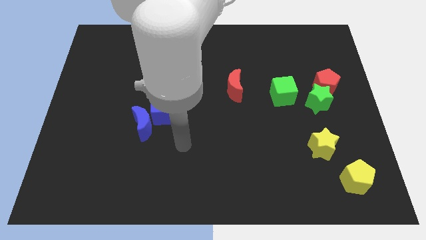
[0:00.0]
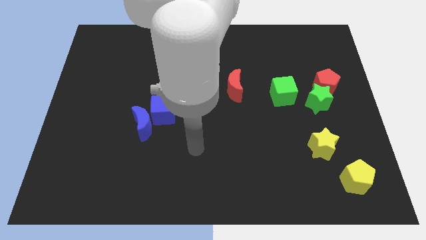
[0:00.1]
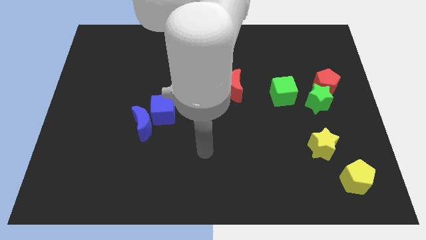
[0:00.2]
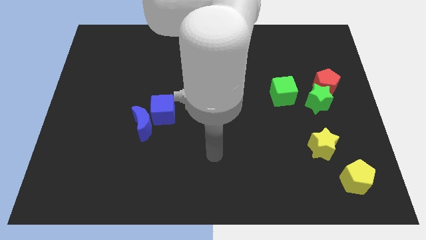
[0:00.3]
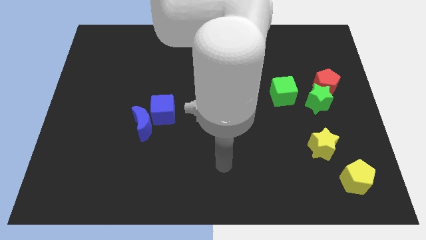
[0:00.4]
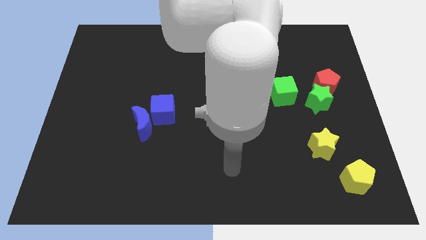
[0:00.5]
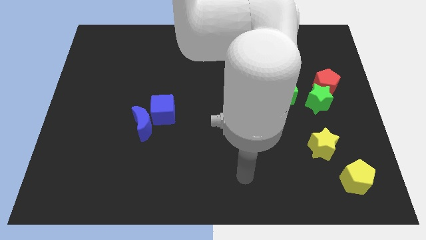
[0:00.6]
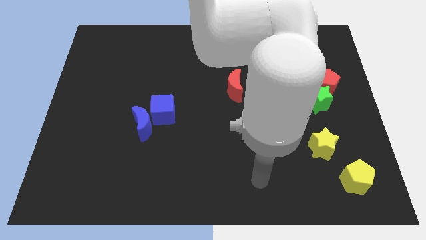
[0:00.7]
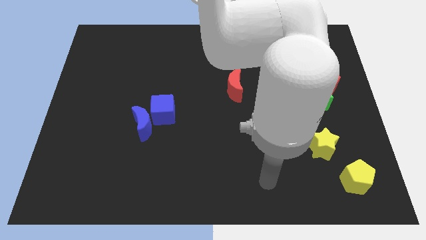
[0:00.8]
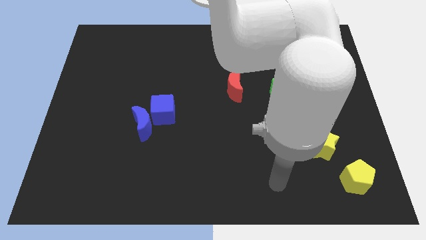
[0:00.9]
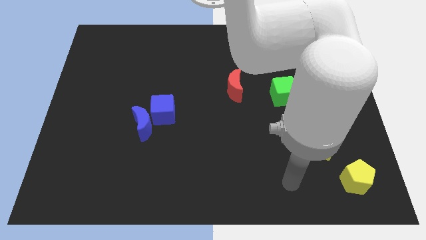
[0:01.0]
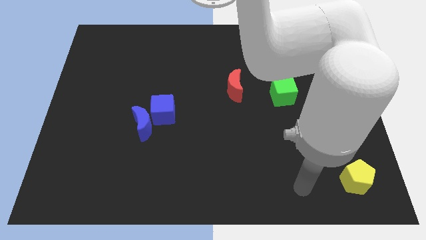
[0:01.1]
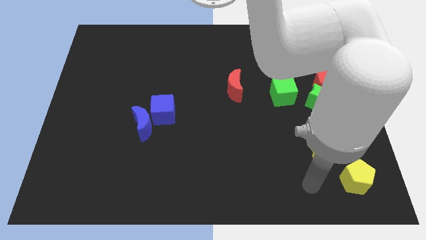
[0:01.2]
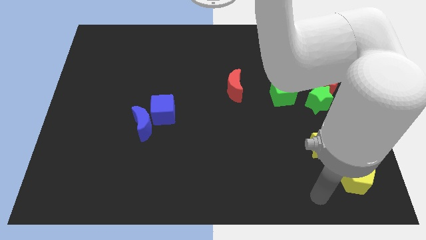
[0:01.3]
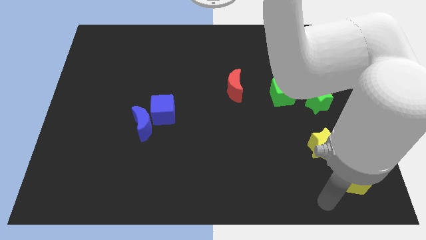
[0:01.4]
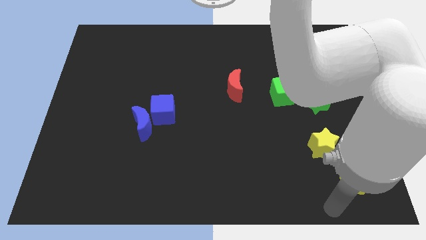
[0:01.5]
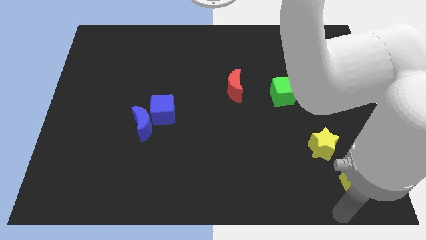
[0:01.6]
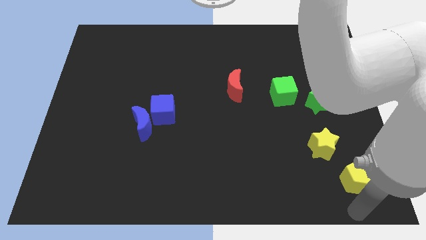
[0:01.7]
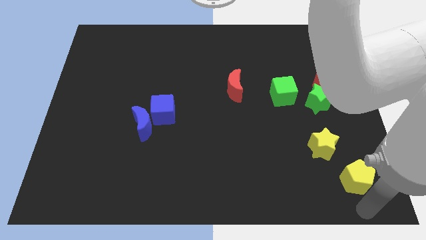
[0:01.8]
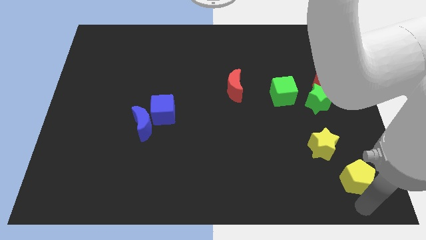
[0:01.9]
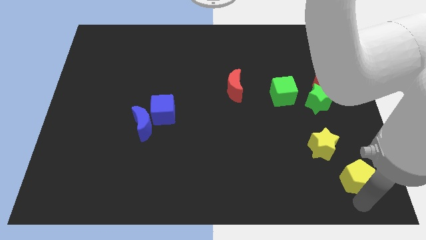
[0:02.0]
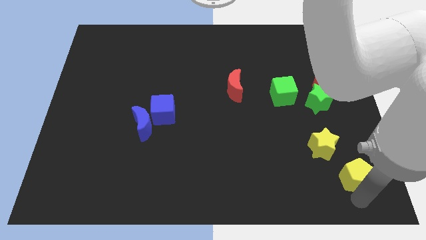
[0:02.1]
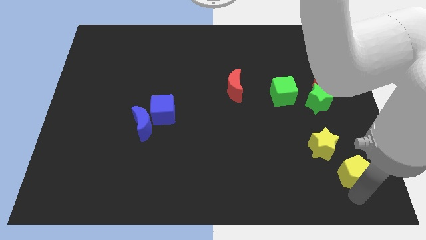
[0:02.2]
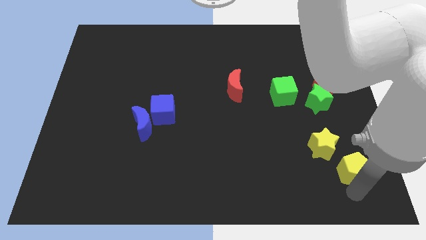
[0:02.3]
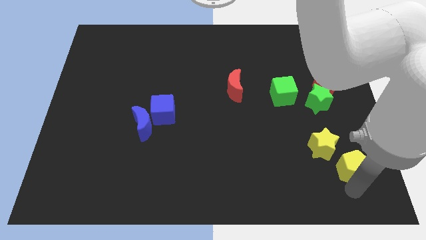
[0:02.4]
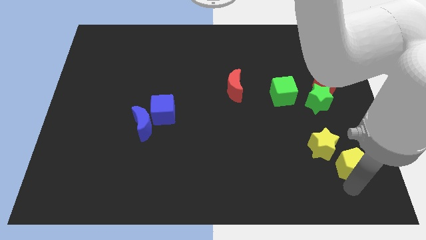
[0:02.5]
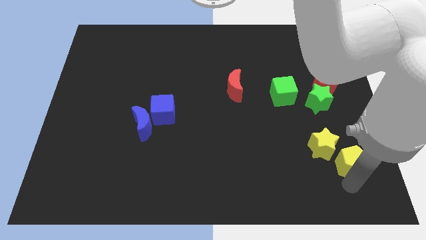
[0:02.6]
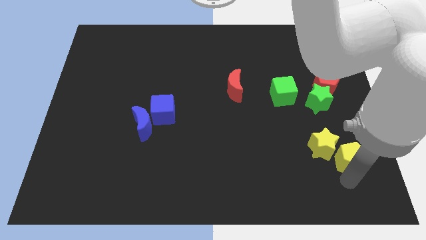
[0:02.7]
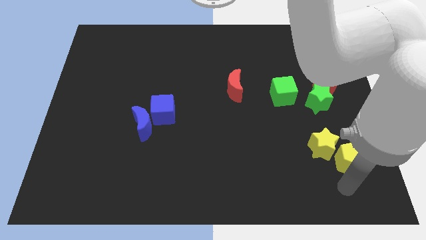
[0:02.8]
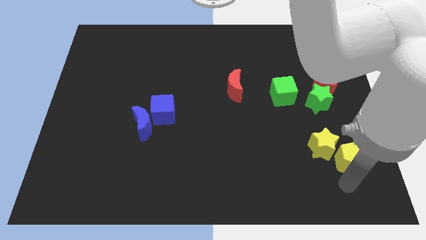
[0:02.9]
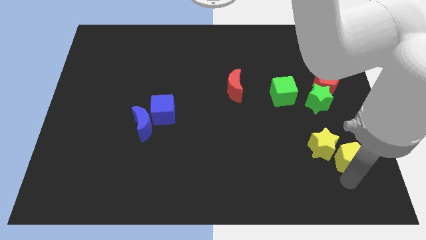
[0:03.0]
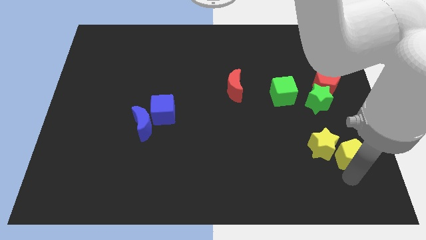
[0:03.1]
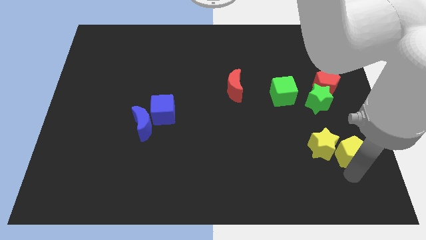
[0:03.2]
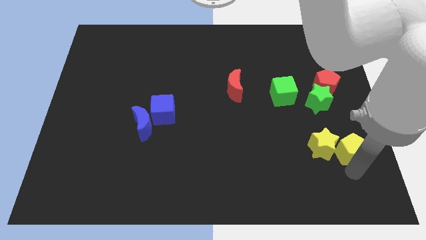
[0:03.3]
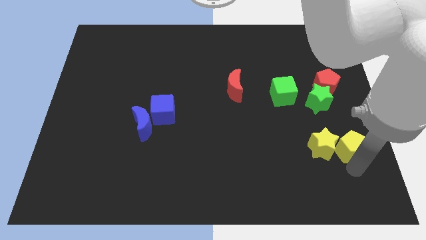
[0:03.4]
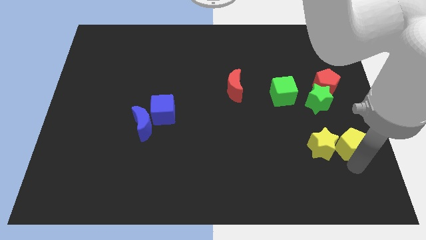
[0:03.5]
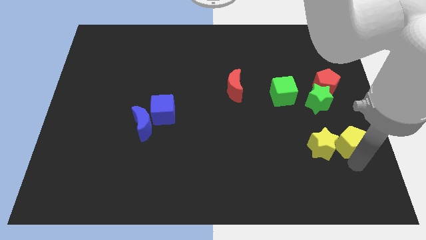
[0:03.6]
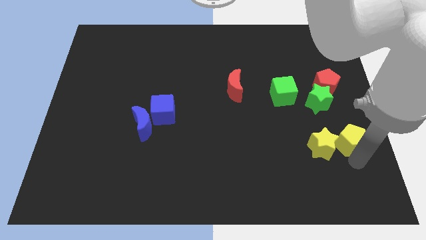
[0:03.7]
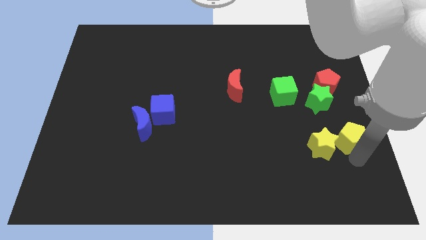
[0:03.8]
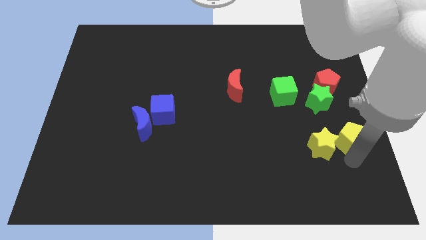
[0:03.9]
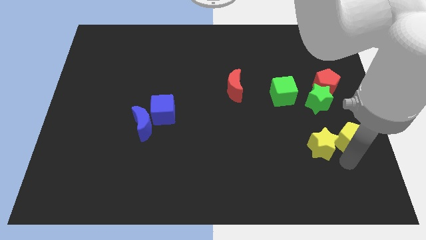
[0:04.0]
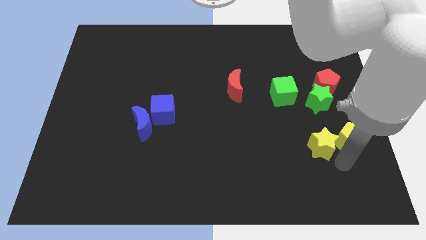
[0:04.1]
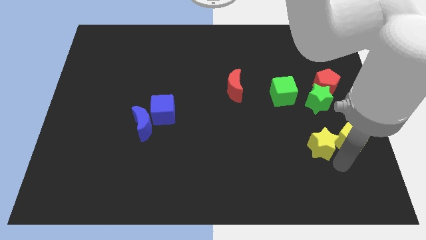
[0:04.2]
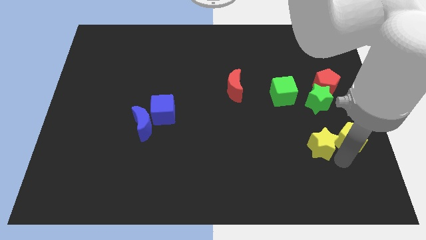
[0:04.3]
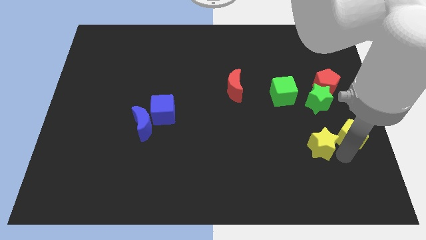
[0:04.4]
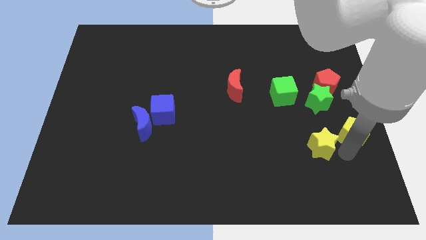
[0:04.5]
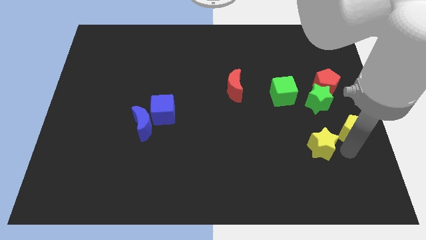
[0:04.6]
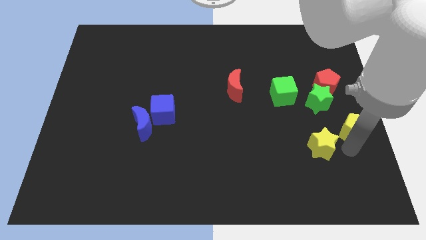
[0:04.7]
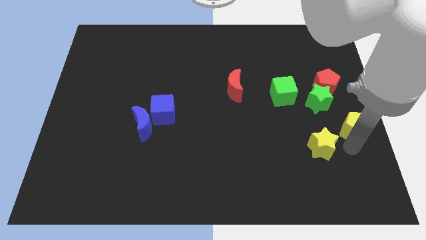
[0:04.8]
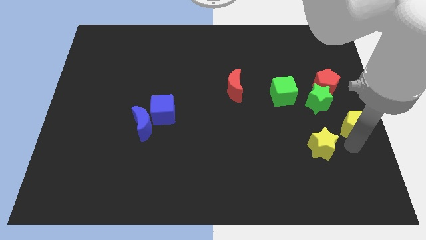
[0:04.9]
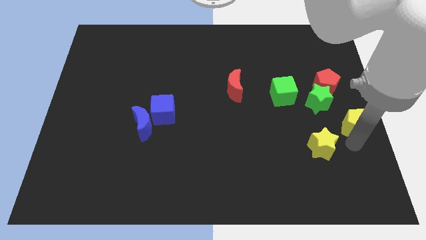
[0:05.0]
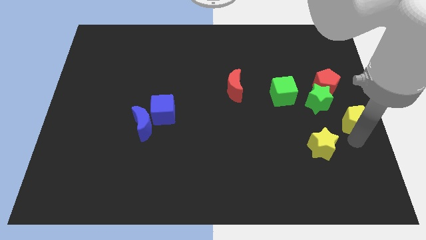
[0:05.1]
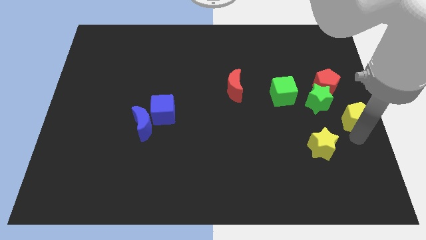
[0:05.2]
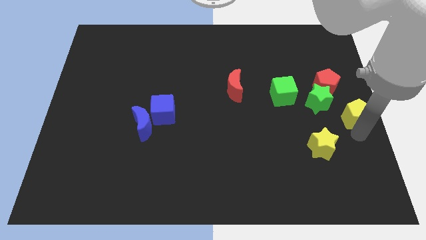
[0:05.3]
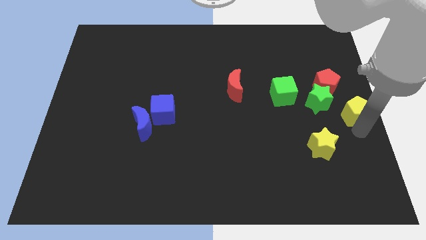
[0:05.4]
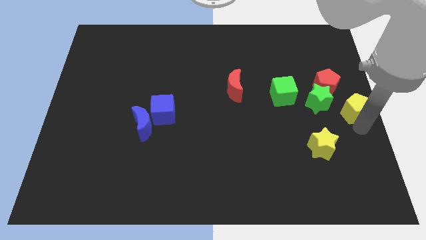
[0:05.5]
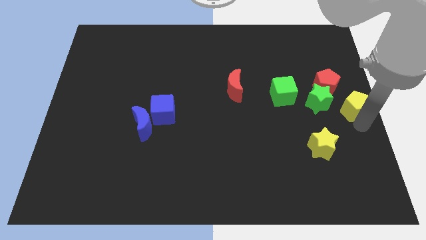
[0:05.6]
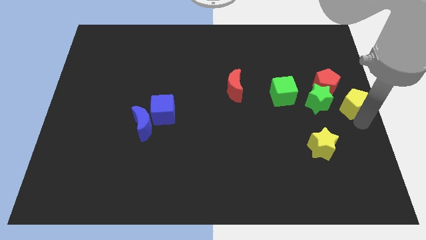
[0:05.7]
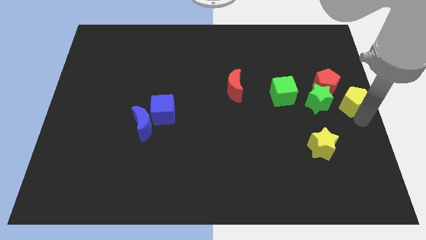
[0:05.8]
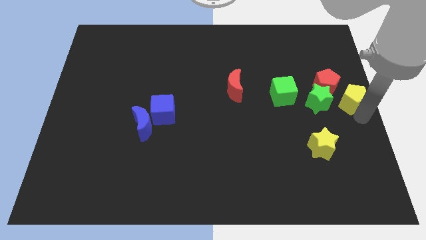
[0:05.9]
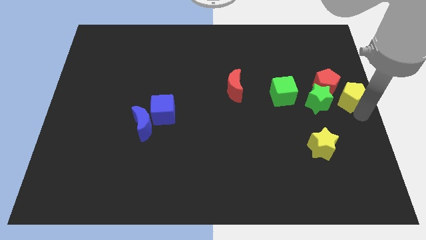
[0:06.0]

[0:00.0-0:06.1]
put the yellow pentagon right of the green cube

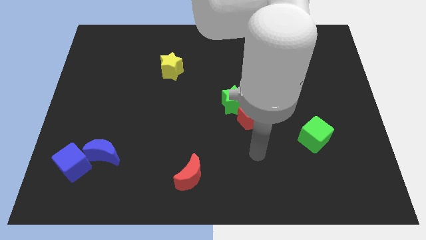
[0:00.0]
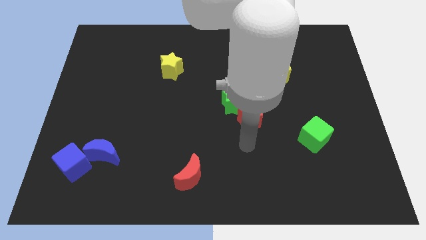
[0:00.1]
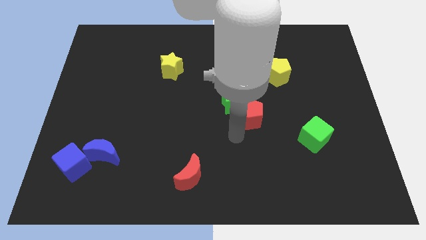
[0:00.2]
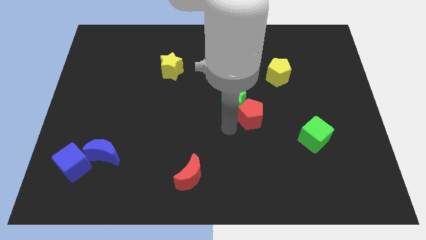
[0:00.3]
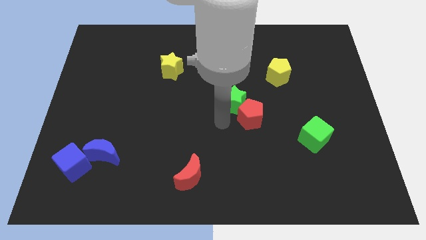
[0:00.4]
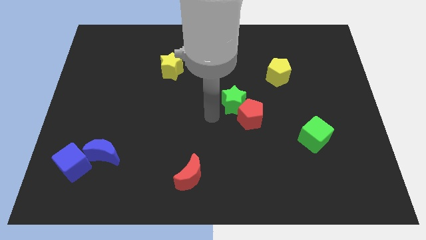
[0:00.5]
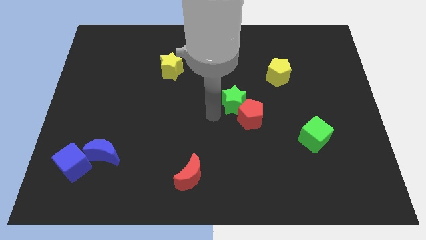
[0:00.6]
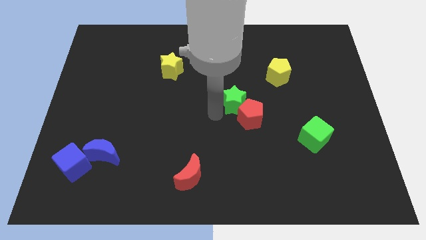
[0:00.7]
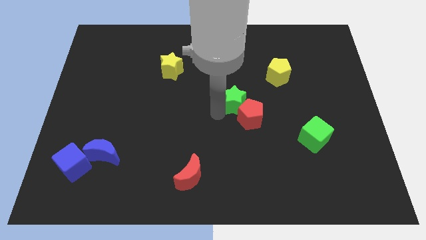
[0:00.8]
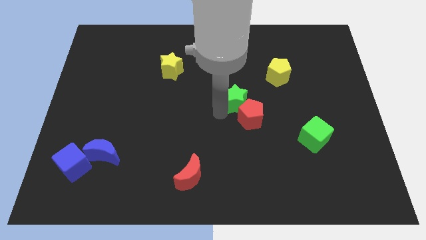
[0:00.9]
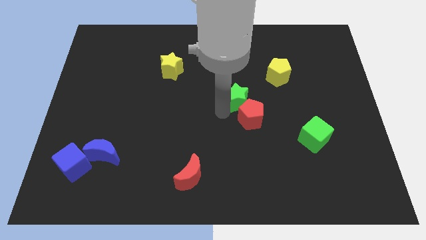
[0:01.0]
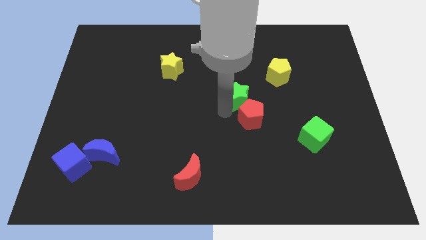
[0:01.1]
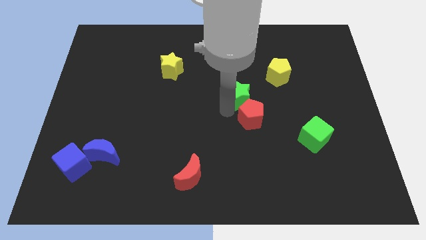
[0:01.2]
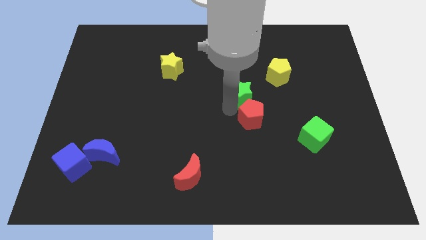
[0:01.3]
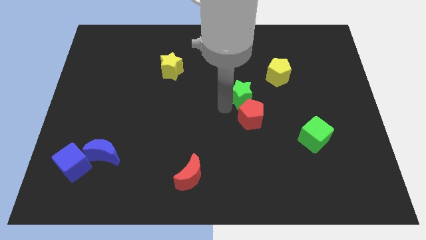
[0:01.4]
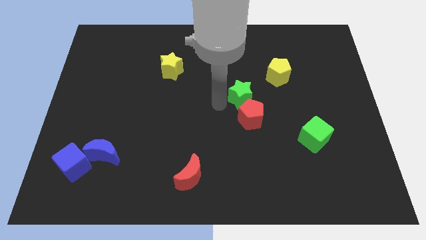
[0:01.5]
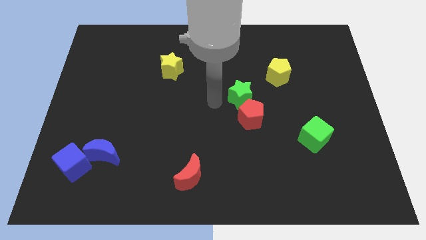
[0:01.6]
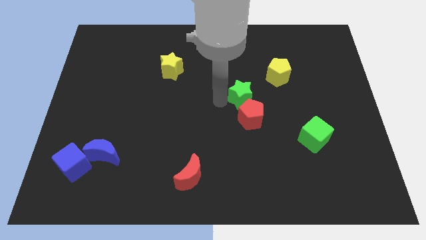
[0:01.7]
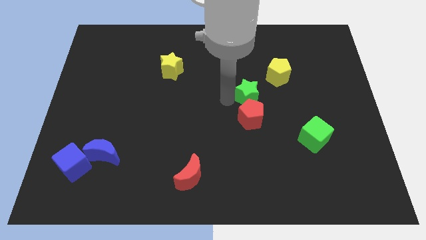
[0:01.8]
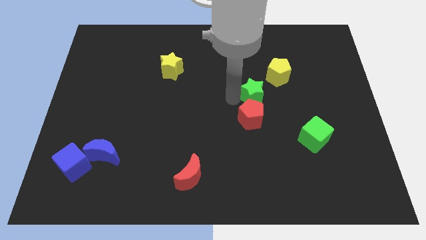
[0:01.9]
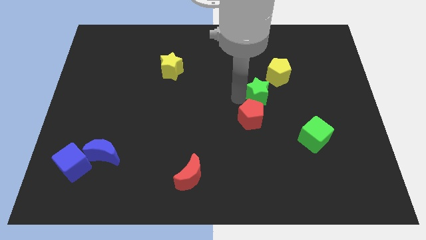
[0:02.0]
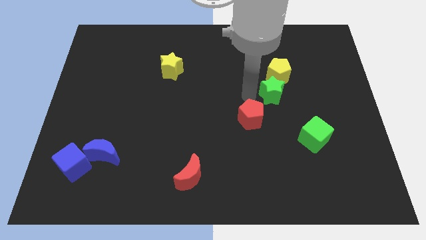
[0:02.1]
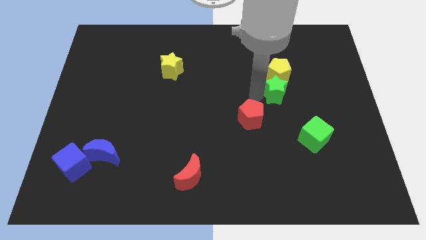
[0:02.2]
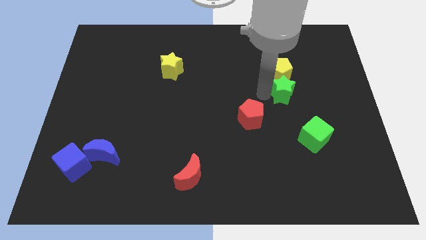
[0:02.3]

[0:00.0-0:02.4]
move the green star to the bottom right of the yellow pentagon
